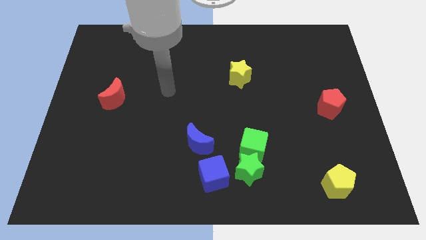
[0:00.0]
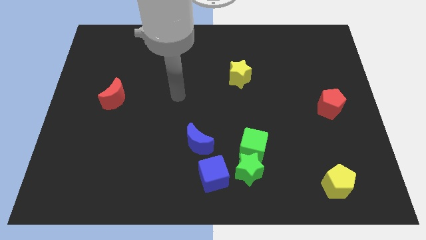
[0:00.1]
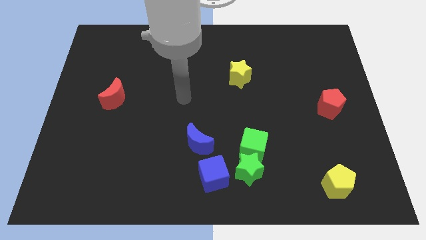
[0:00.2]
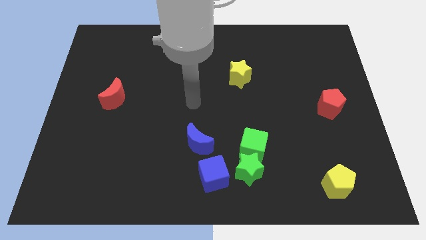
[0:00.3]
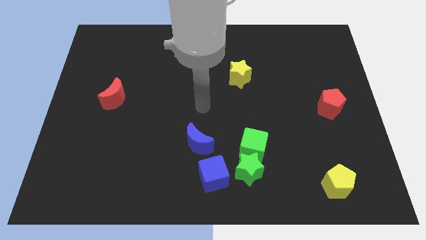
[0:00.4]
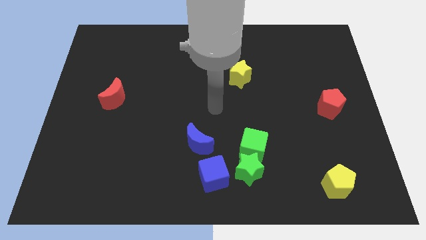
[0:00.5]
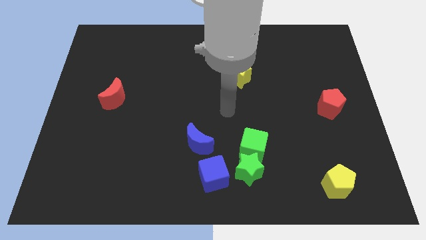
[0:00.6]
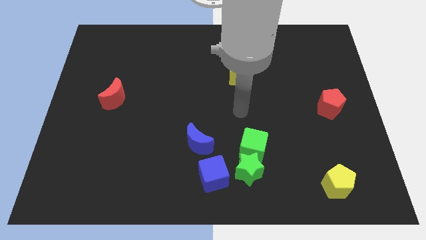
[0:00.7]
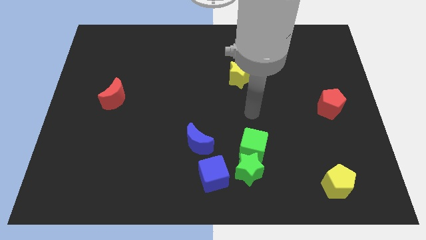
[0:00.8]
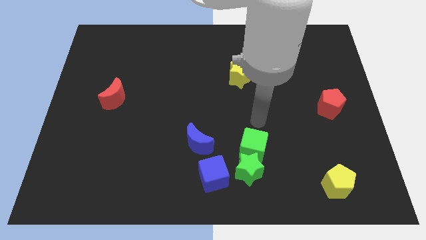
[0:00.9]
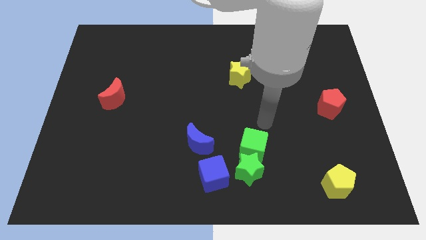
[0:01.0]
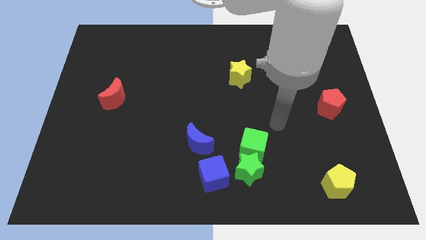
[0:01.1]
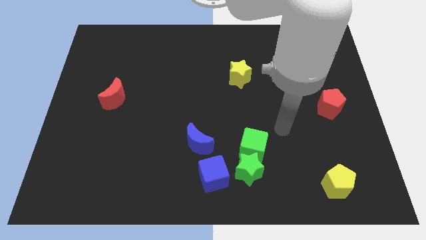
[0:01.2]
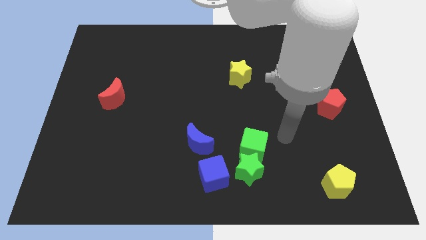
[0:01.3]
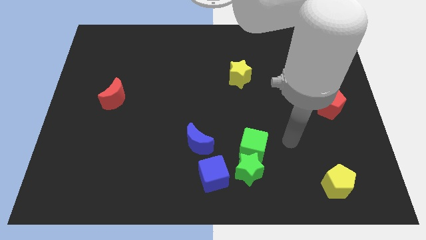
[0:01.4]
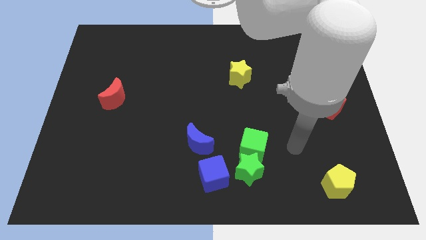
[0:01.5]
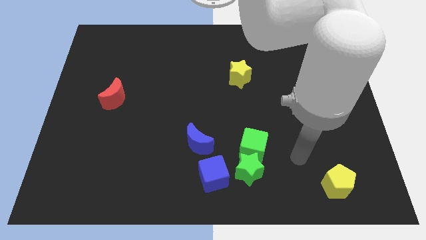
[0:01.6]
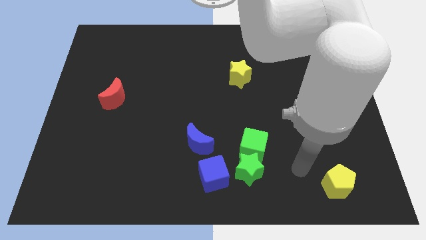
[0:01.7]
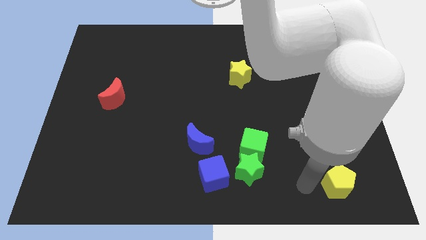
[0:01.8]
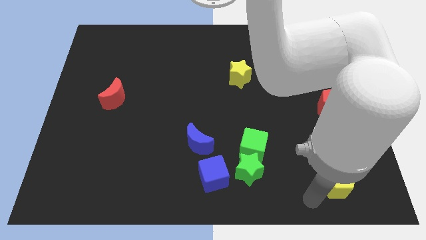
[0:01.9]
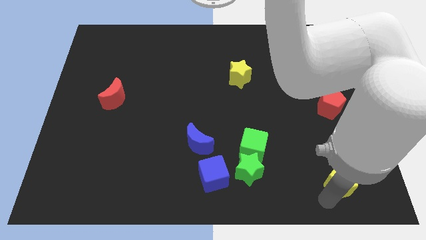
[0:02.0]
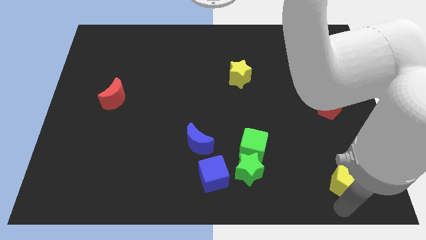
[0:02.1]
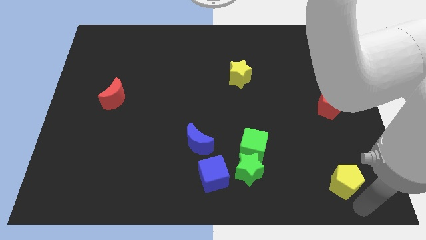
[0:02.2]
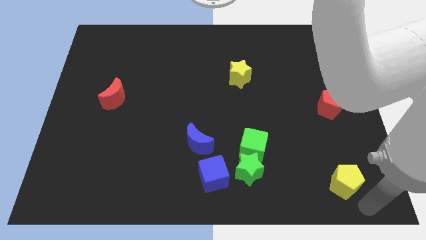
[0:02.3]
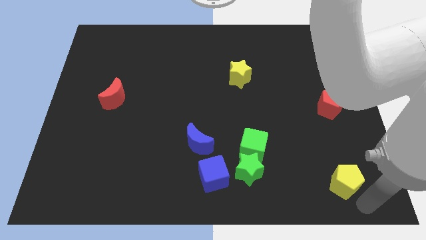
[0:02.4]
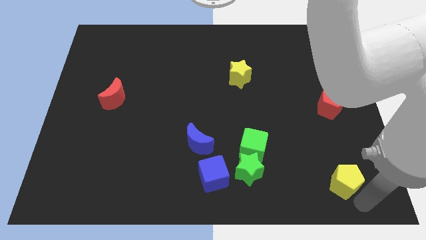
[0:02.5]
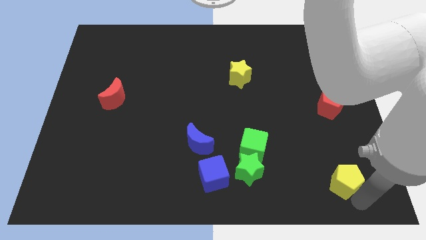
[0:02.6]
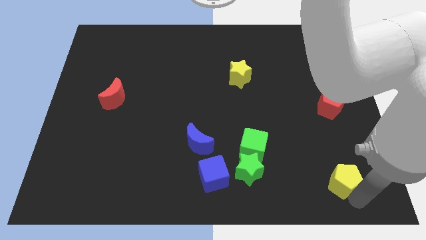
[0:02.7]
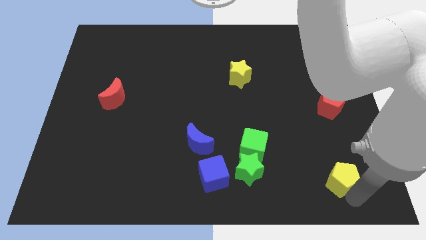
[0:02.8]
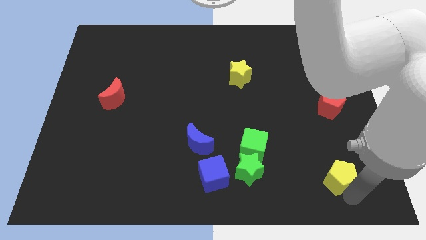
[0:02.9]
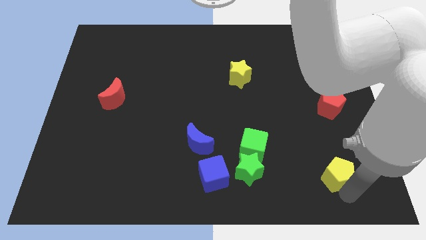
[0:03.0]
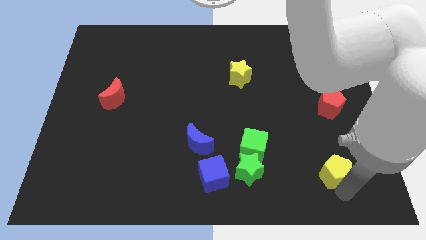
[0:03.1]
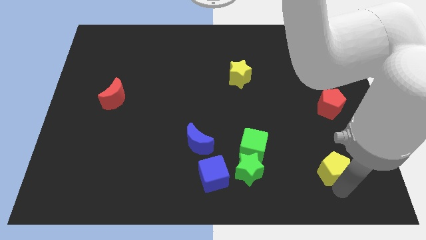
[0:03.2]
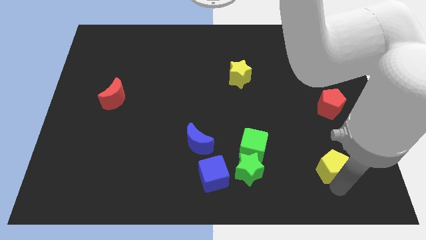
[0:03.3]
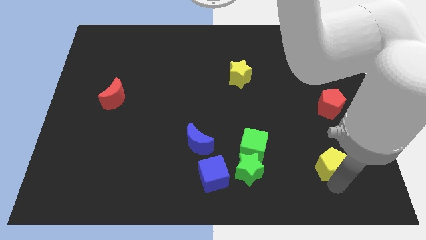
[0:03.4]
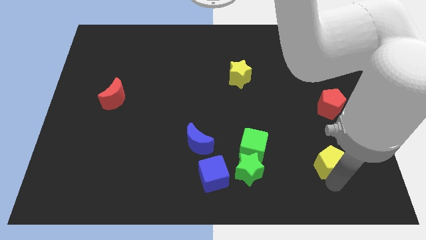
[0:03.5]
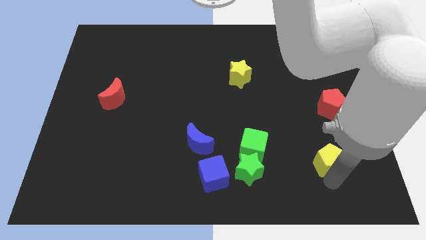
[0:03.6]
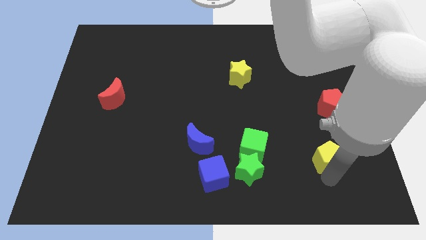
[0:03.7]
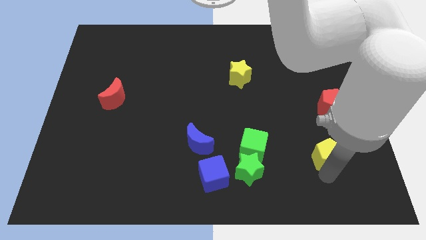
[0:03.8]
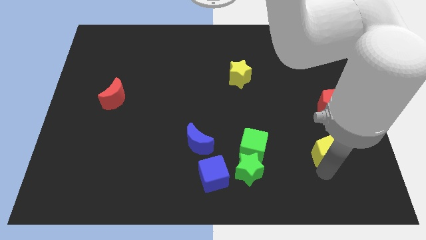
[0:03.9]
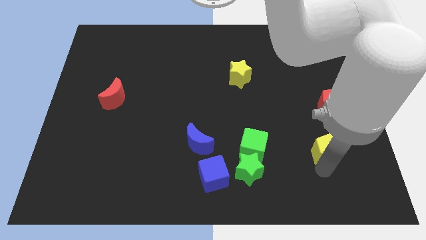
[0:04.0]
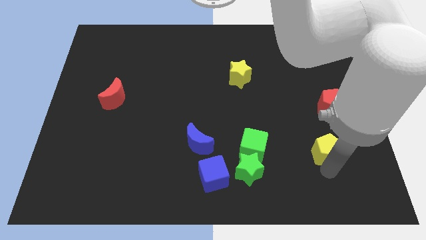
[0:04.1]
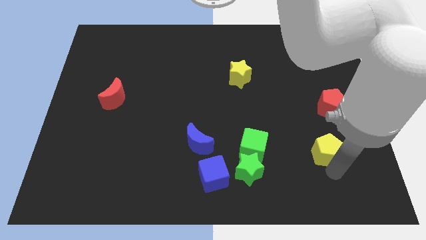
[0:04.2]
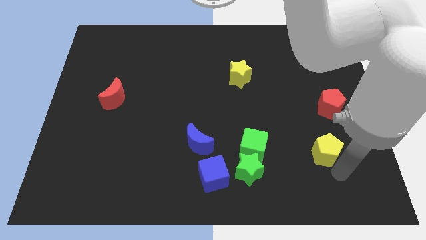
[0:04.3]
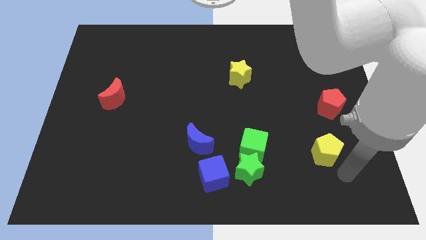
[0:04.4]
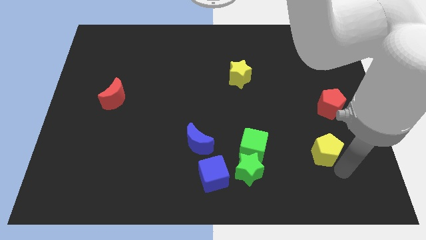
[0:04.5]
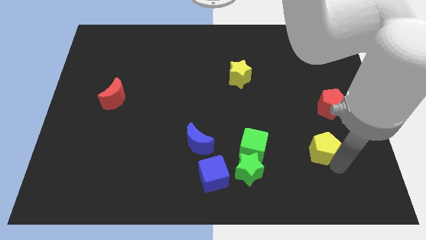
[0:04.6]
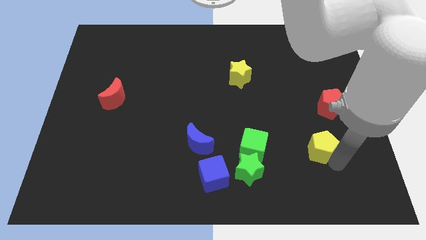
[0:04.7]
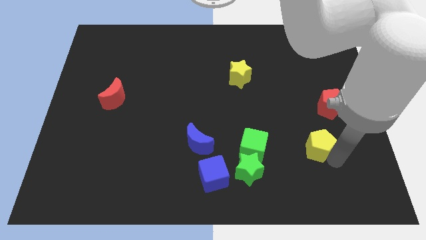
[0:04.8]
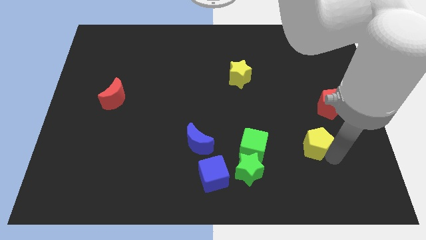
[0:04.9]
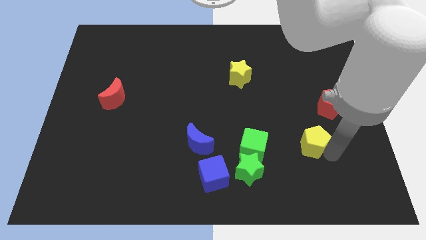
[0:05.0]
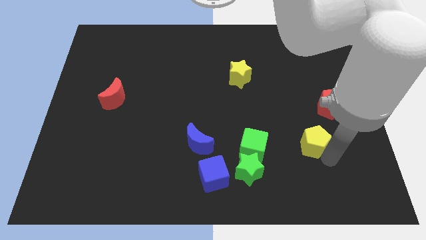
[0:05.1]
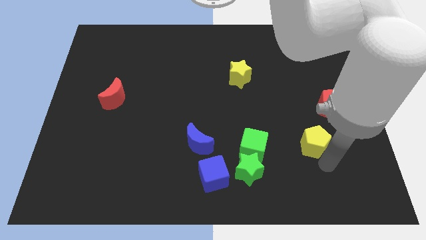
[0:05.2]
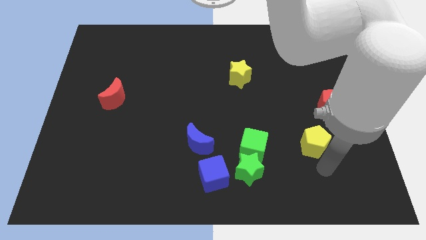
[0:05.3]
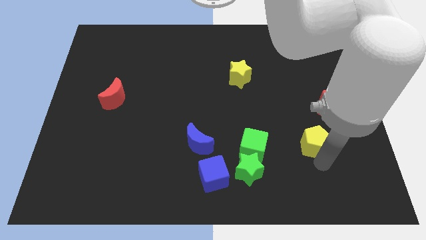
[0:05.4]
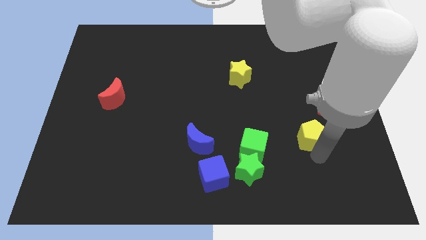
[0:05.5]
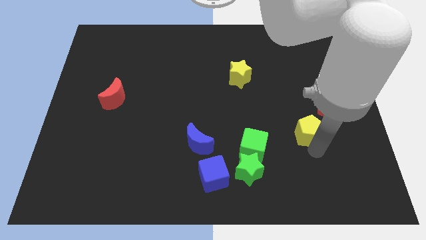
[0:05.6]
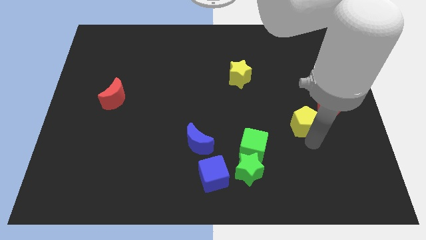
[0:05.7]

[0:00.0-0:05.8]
put the yellow pentagon just left of the red pentagon

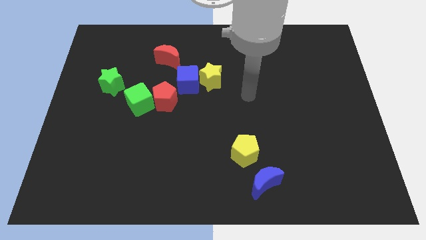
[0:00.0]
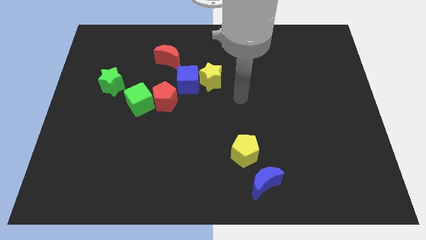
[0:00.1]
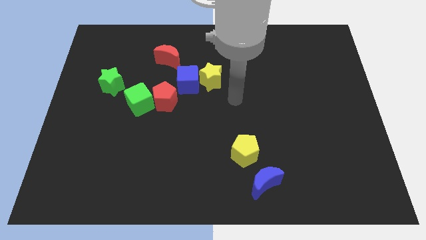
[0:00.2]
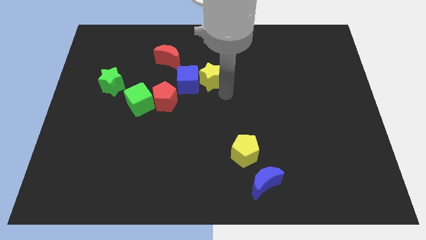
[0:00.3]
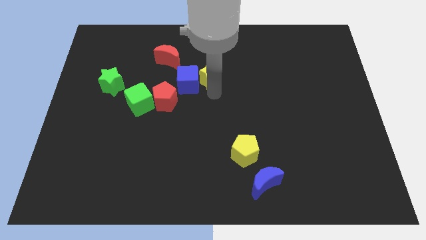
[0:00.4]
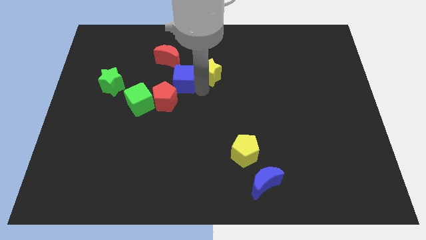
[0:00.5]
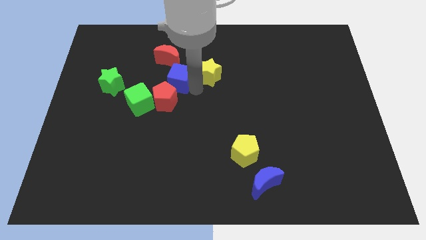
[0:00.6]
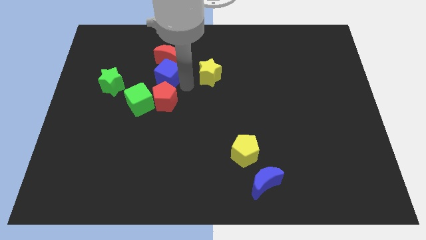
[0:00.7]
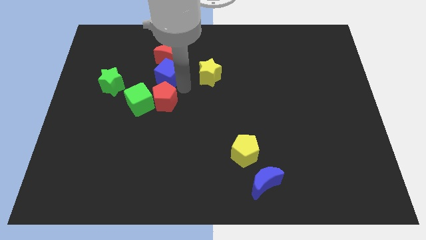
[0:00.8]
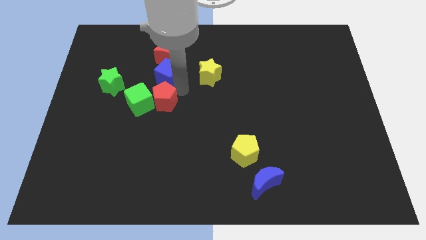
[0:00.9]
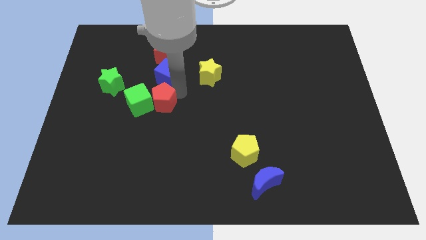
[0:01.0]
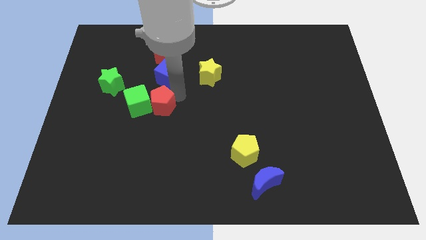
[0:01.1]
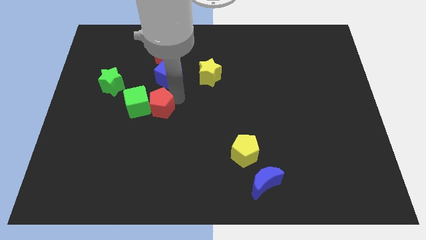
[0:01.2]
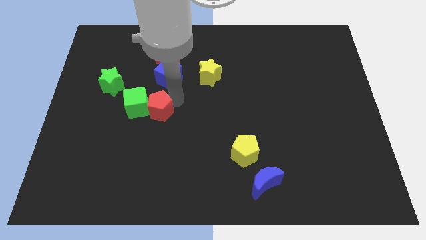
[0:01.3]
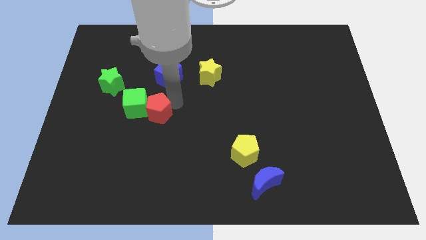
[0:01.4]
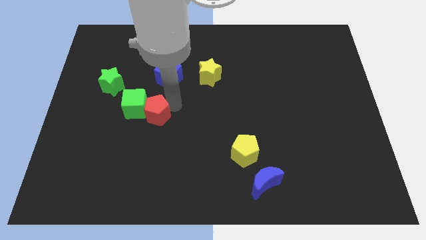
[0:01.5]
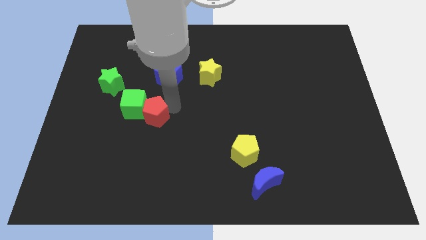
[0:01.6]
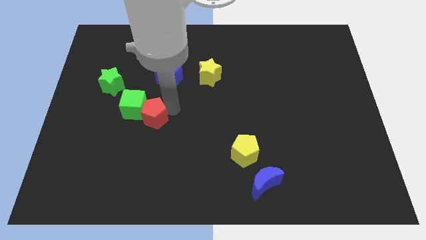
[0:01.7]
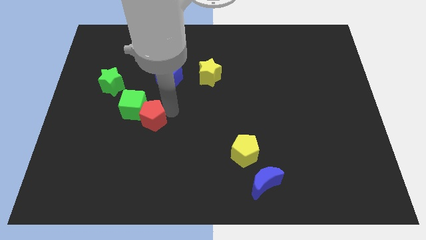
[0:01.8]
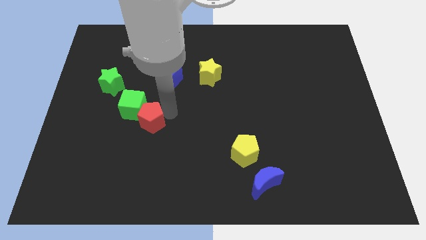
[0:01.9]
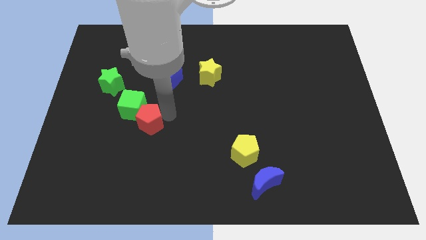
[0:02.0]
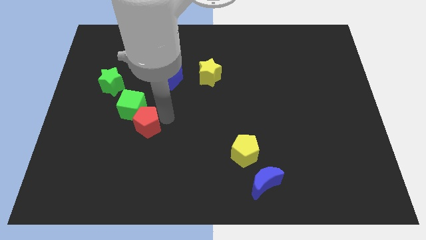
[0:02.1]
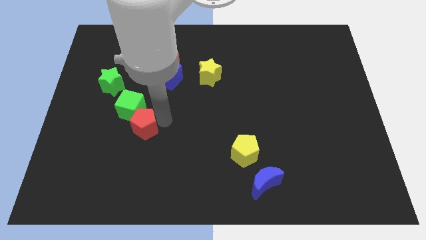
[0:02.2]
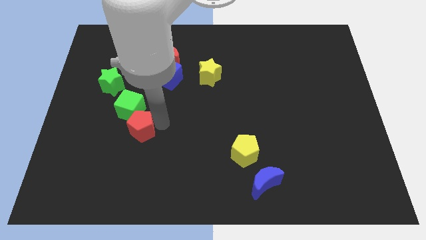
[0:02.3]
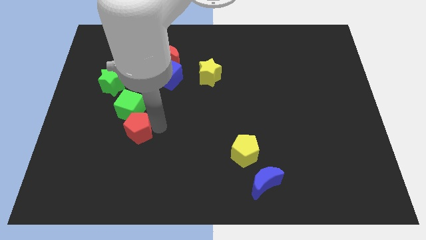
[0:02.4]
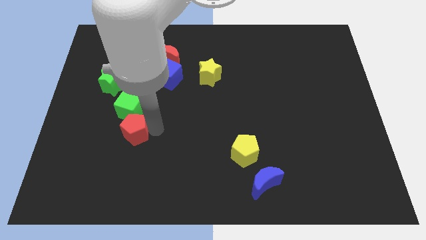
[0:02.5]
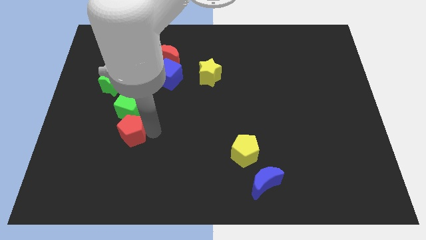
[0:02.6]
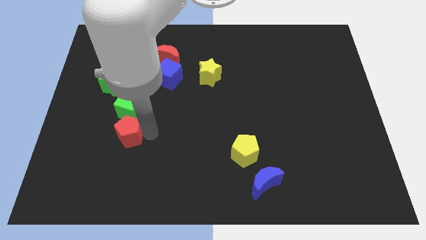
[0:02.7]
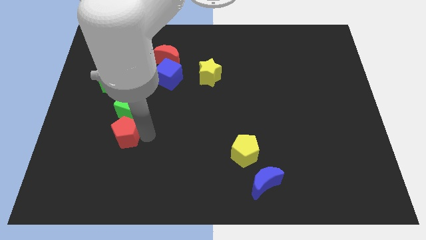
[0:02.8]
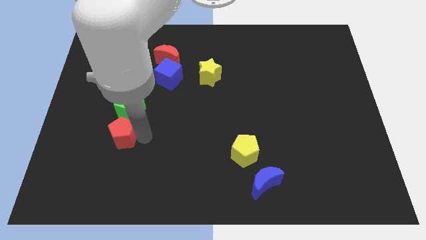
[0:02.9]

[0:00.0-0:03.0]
push the red pentagon to the bottom left of the green cube
